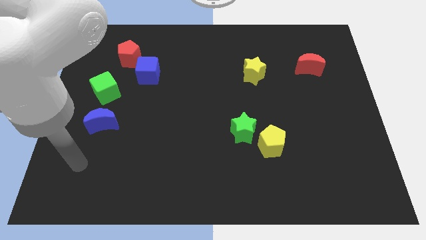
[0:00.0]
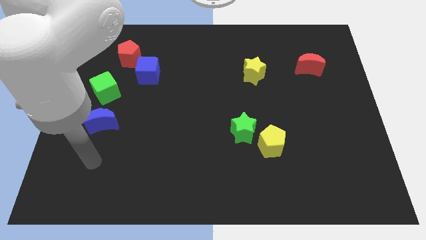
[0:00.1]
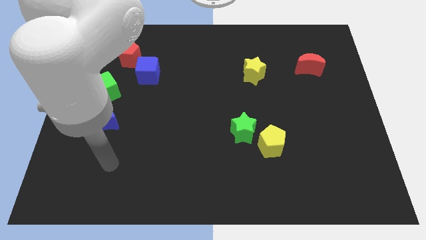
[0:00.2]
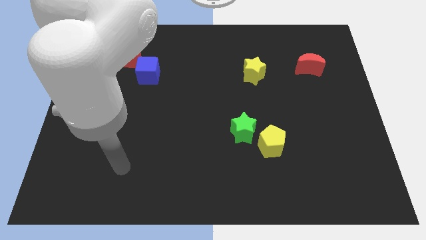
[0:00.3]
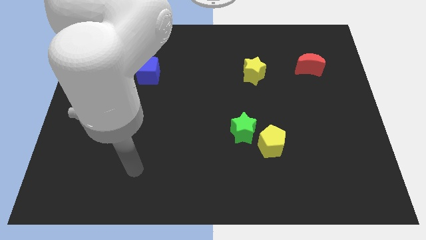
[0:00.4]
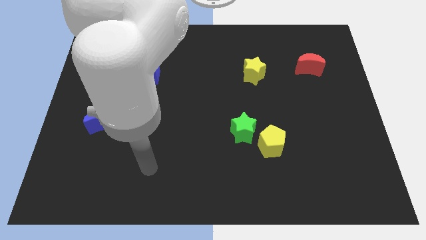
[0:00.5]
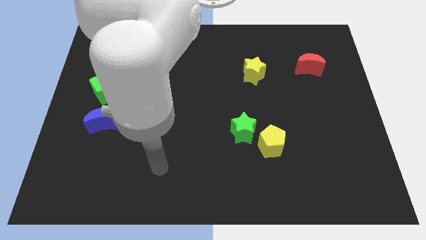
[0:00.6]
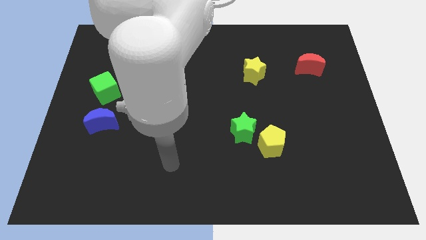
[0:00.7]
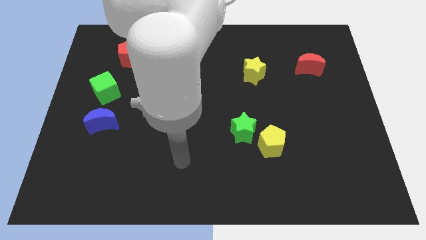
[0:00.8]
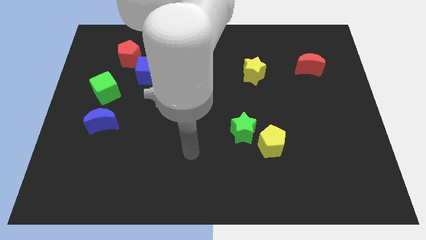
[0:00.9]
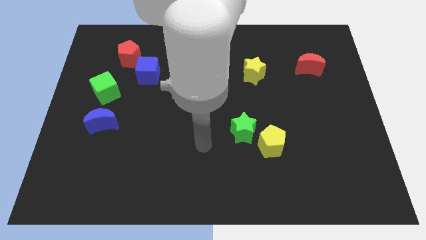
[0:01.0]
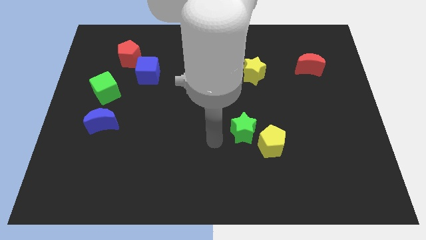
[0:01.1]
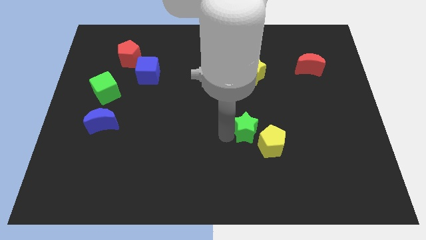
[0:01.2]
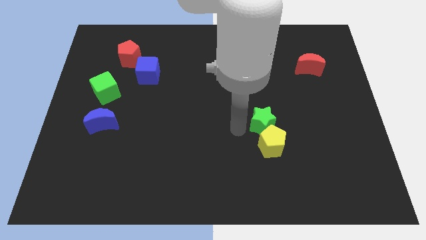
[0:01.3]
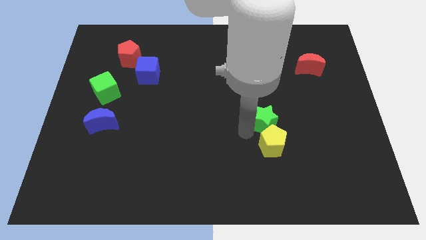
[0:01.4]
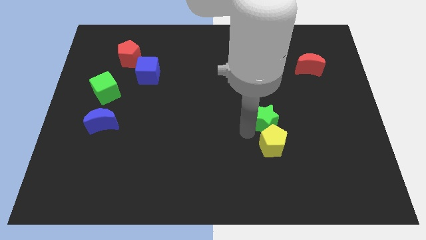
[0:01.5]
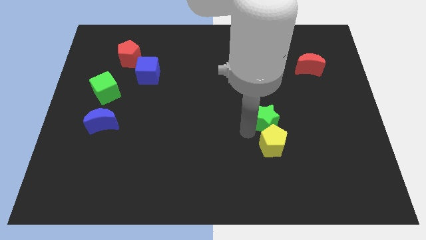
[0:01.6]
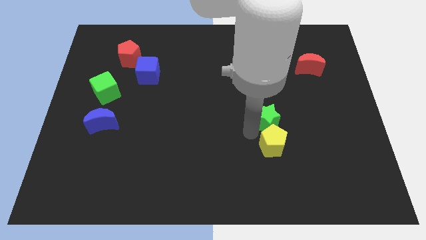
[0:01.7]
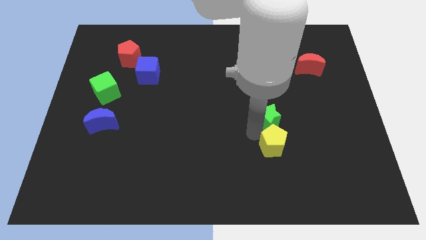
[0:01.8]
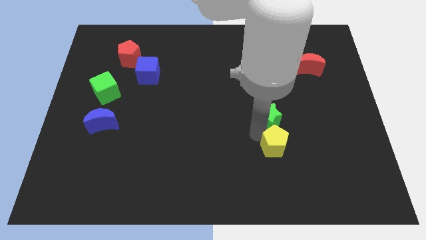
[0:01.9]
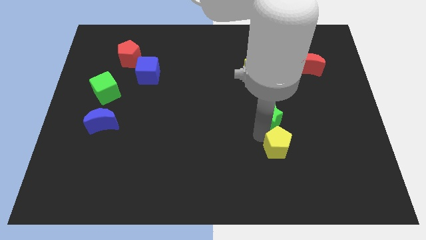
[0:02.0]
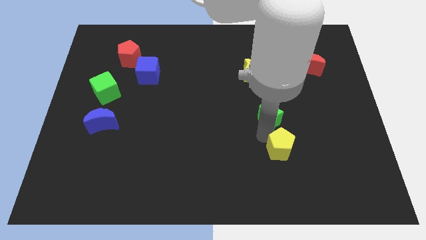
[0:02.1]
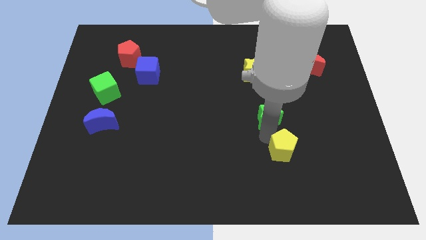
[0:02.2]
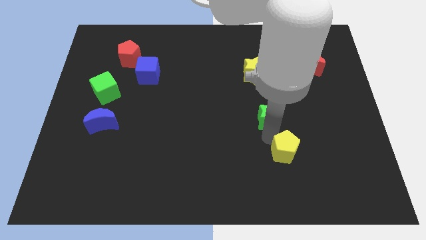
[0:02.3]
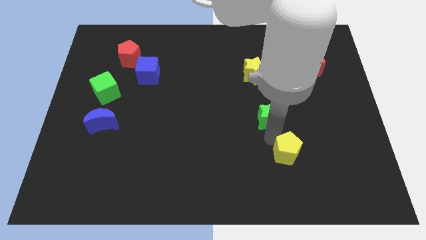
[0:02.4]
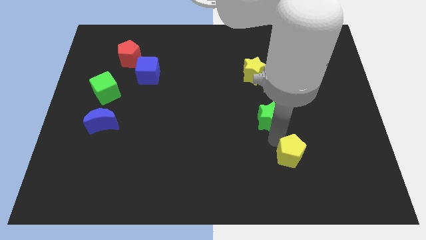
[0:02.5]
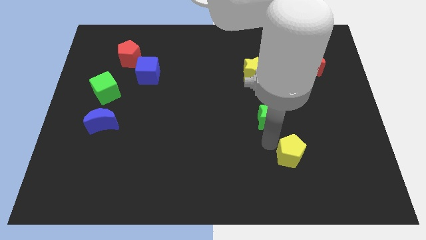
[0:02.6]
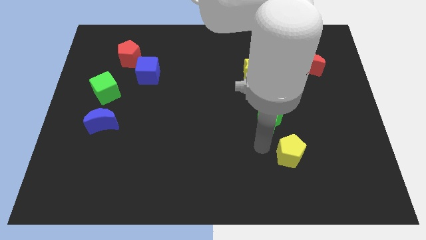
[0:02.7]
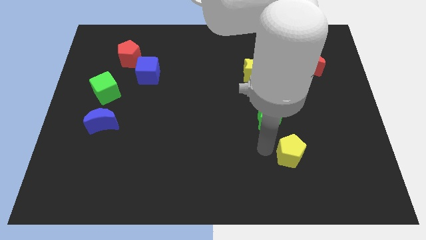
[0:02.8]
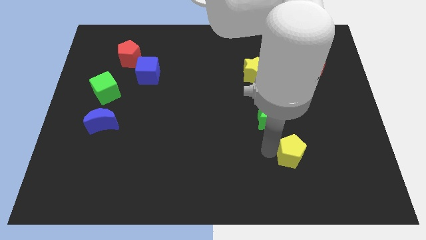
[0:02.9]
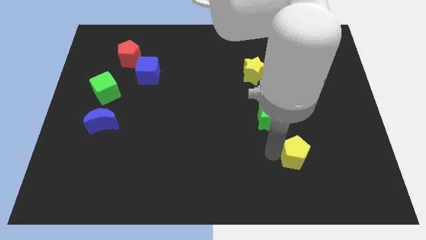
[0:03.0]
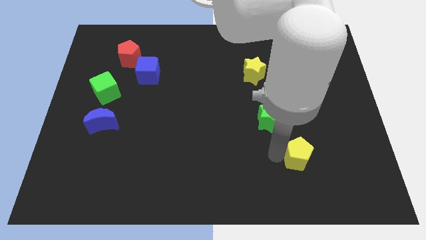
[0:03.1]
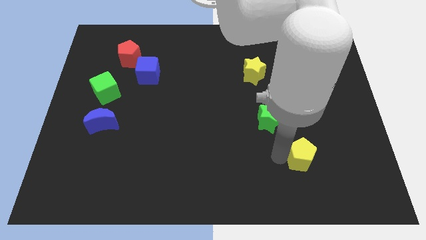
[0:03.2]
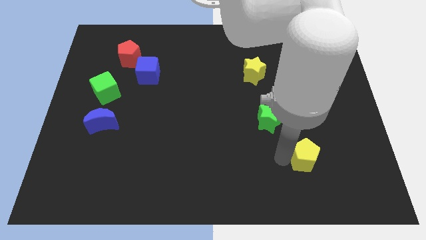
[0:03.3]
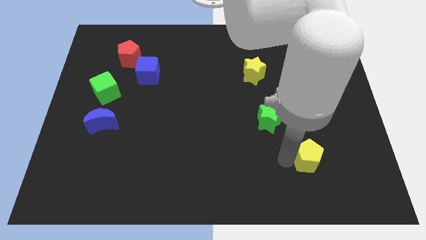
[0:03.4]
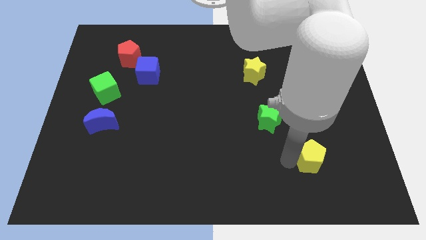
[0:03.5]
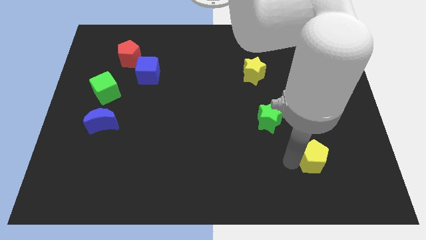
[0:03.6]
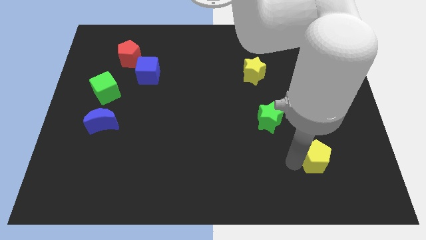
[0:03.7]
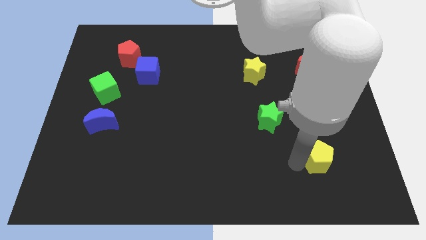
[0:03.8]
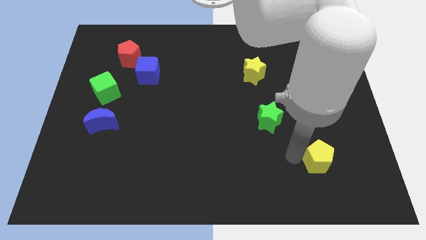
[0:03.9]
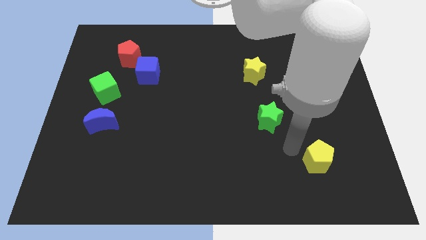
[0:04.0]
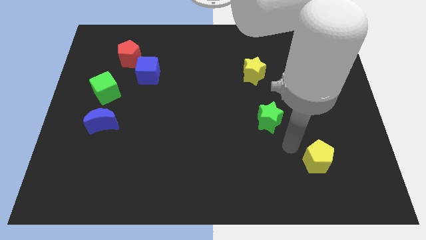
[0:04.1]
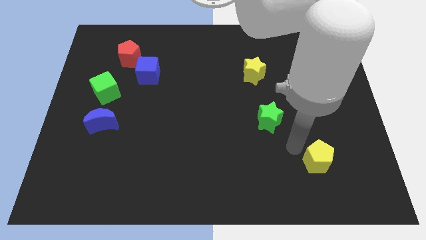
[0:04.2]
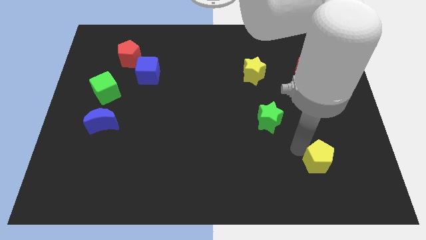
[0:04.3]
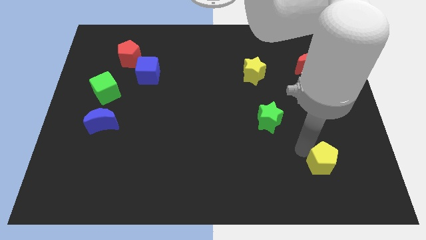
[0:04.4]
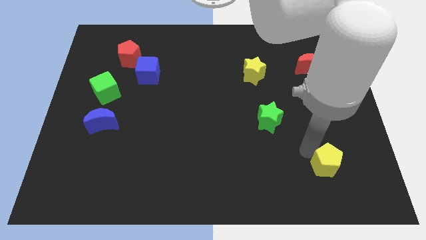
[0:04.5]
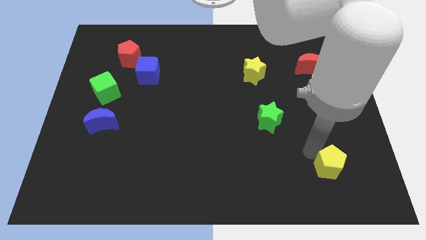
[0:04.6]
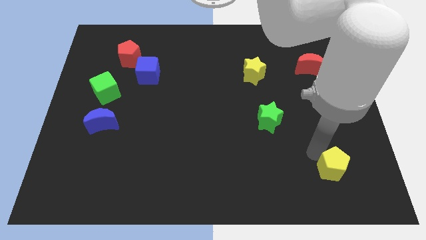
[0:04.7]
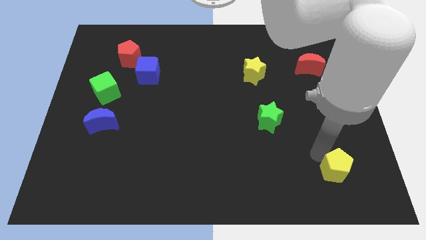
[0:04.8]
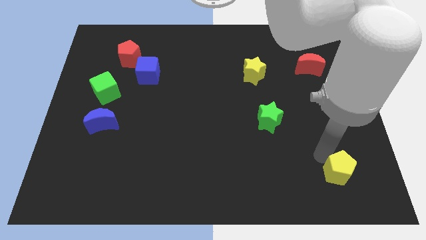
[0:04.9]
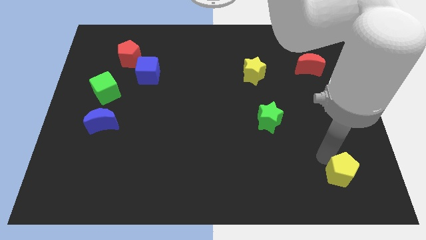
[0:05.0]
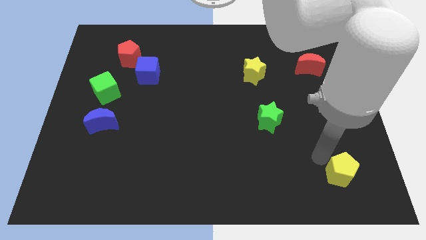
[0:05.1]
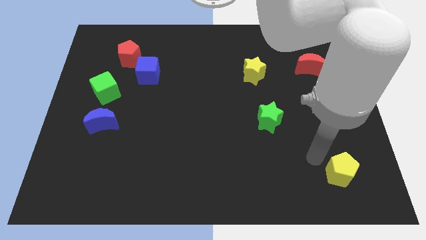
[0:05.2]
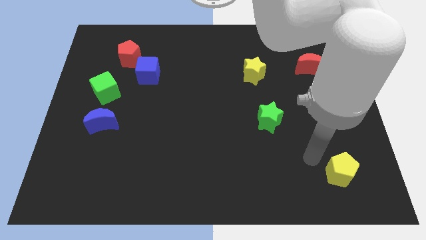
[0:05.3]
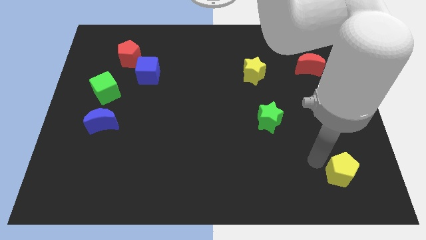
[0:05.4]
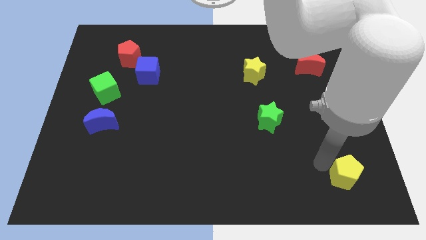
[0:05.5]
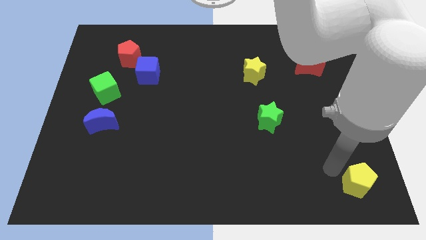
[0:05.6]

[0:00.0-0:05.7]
move the yellow pentagon to the bottom right corner

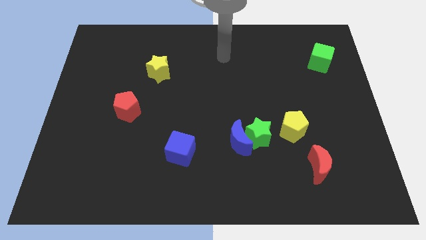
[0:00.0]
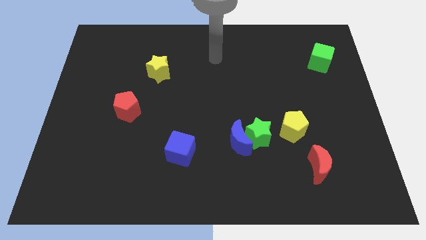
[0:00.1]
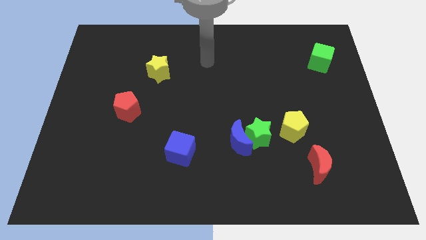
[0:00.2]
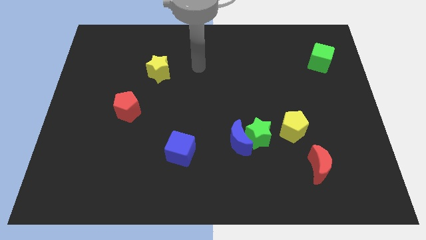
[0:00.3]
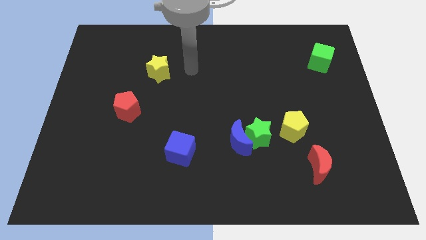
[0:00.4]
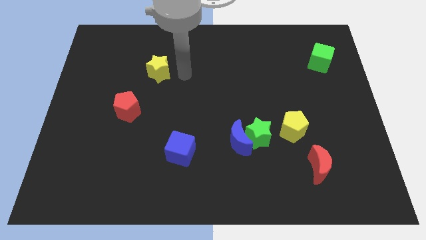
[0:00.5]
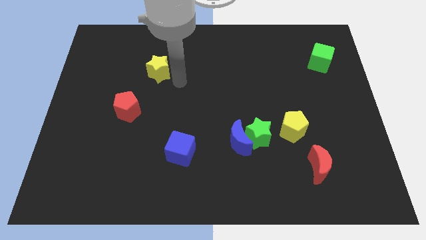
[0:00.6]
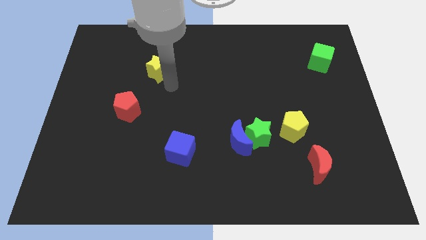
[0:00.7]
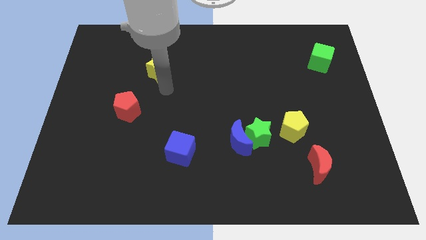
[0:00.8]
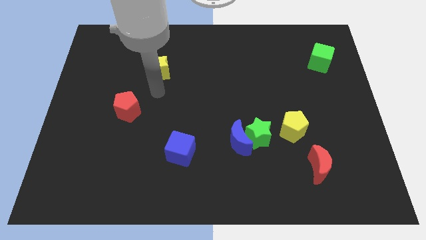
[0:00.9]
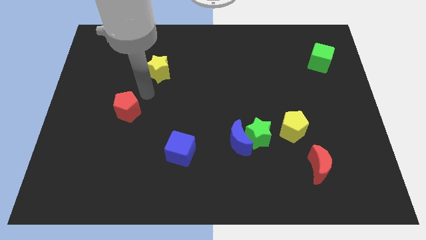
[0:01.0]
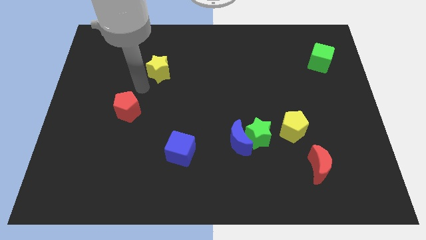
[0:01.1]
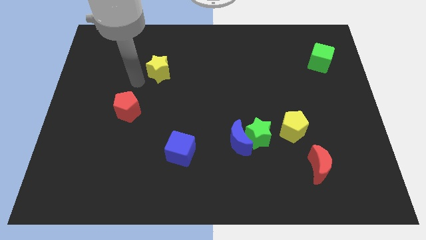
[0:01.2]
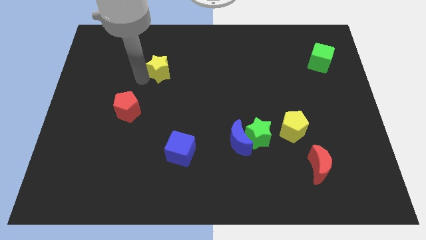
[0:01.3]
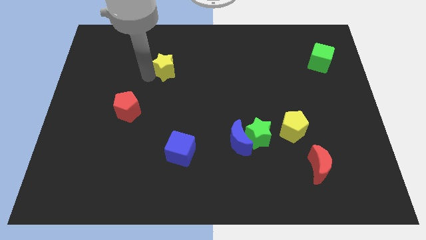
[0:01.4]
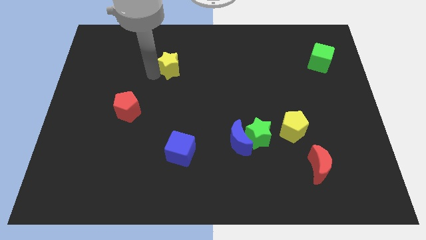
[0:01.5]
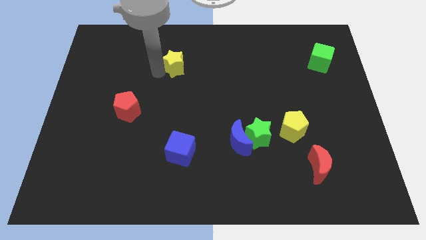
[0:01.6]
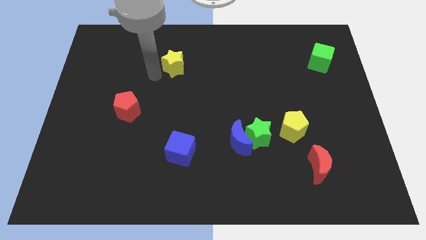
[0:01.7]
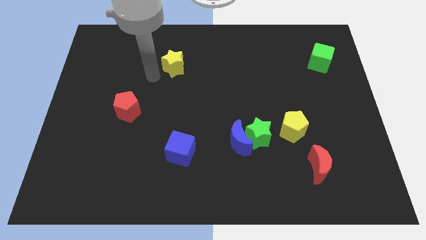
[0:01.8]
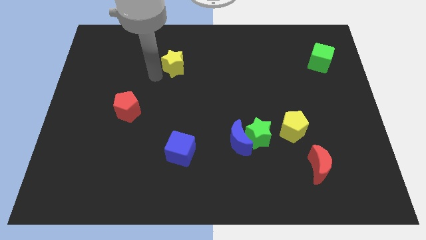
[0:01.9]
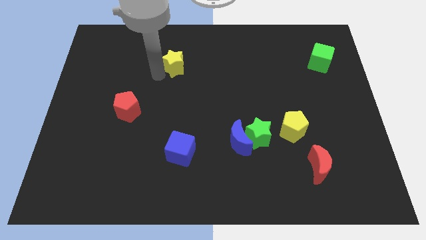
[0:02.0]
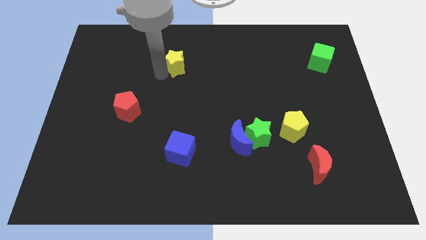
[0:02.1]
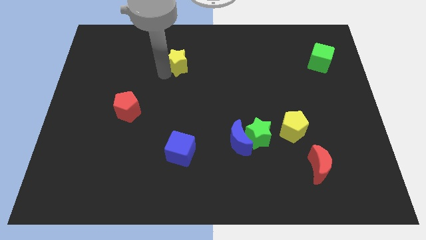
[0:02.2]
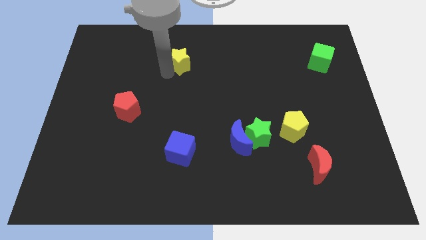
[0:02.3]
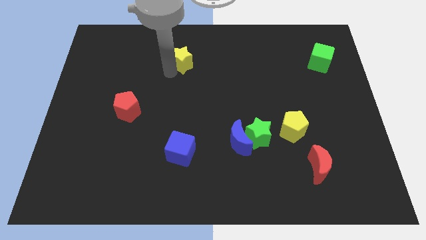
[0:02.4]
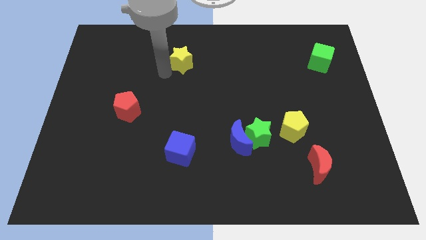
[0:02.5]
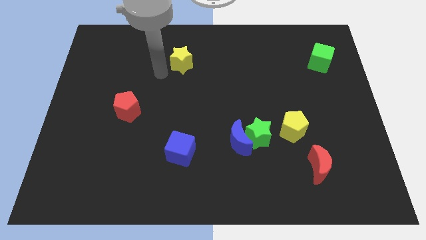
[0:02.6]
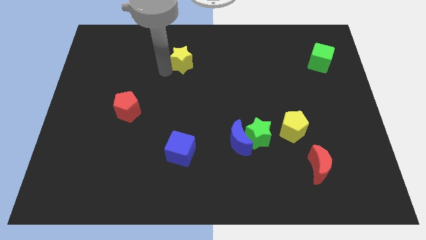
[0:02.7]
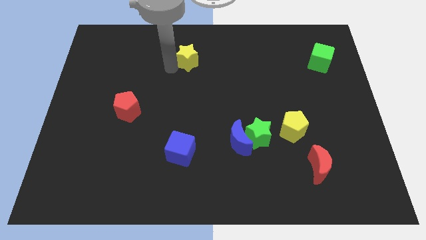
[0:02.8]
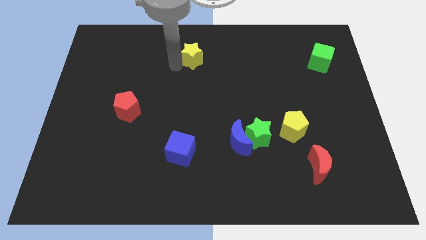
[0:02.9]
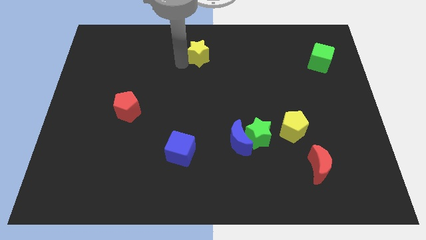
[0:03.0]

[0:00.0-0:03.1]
slide the yellow star to the top
